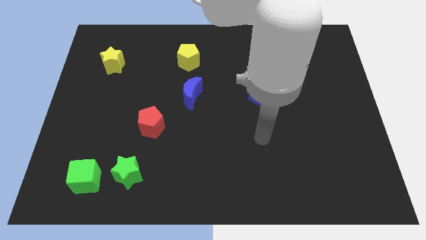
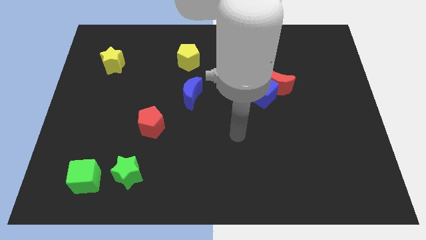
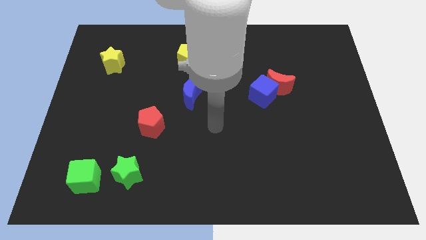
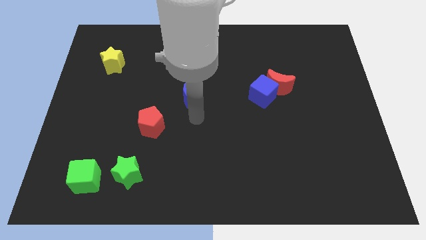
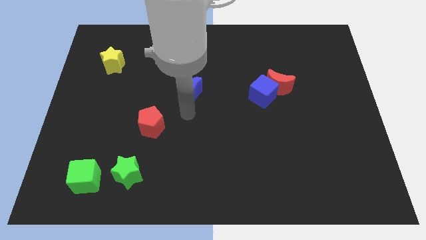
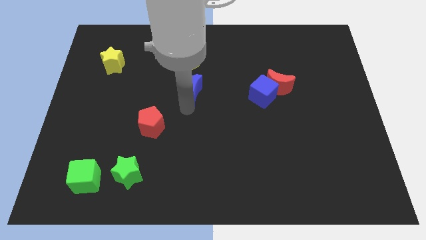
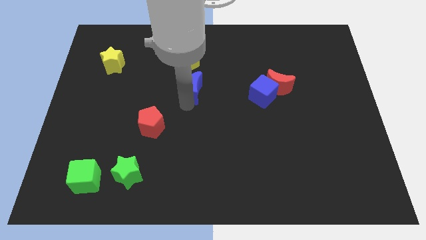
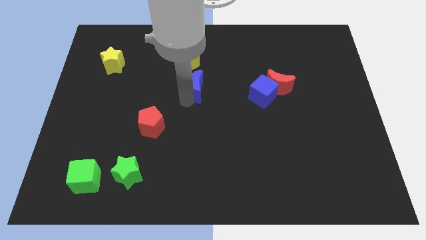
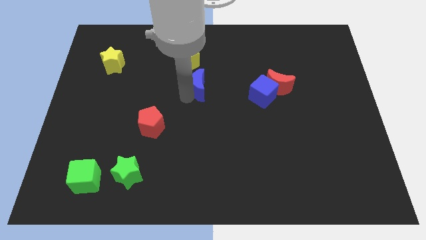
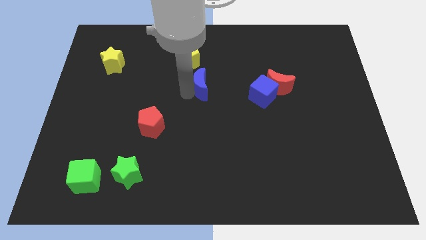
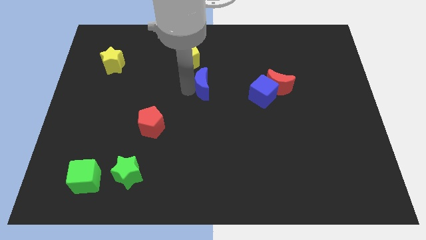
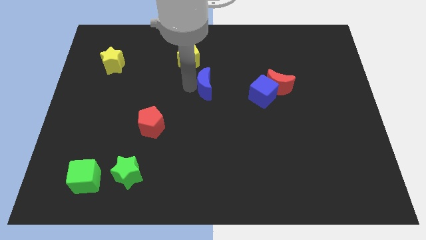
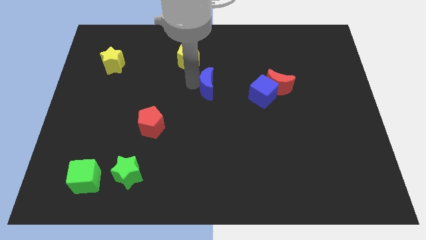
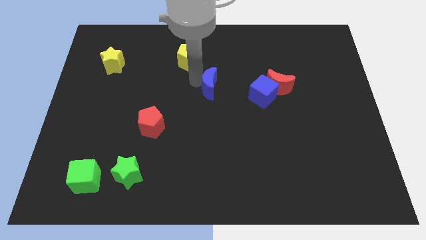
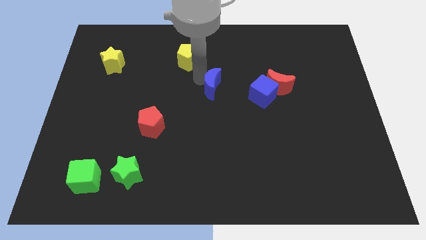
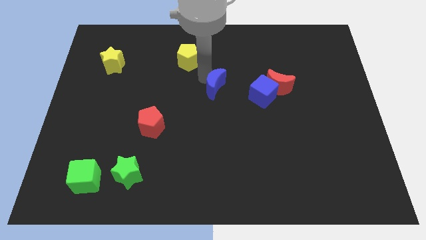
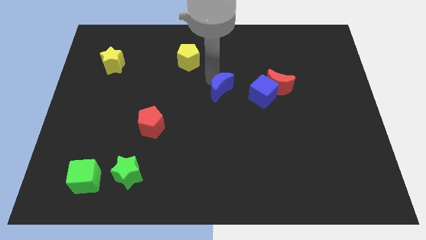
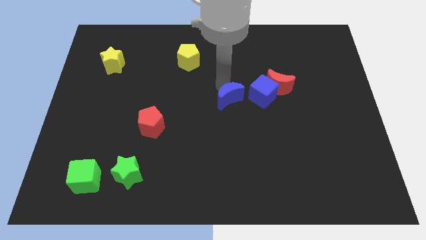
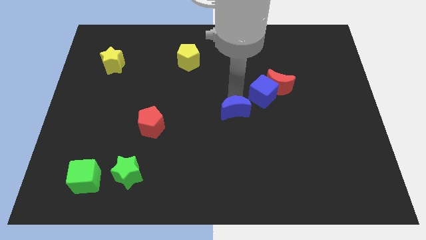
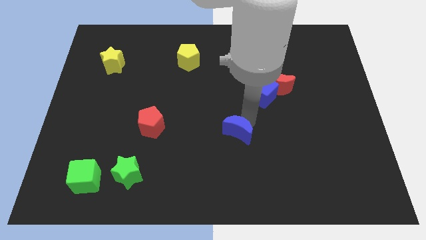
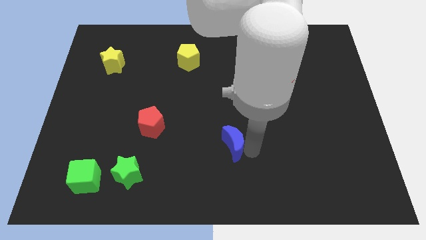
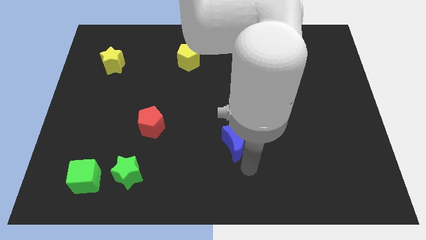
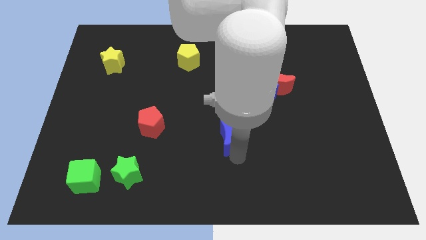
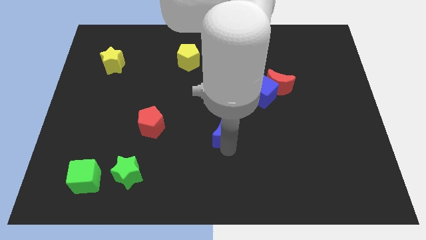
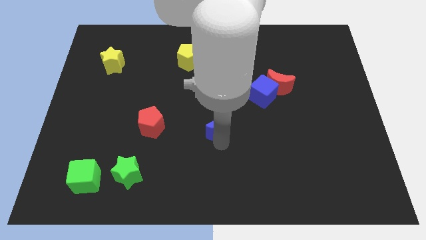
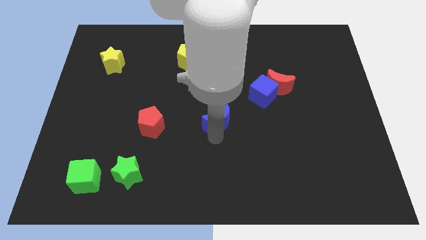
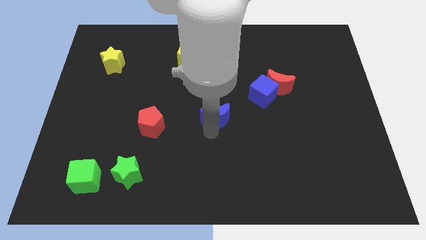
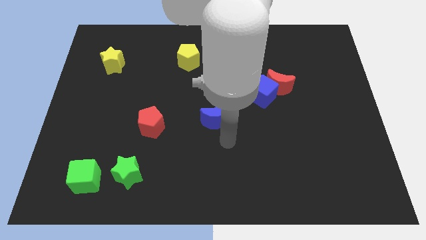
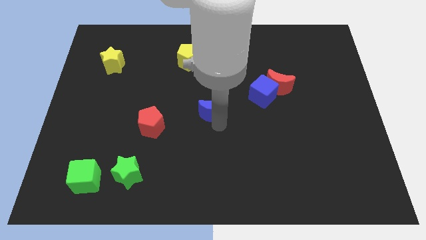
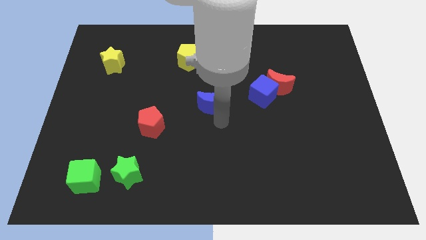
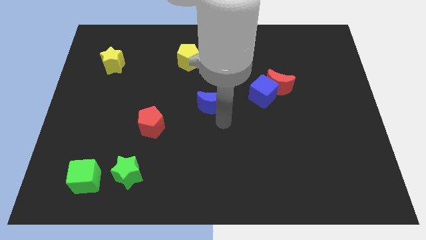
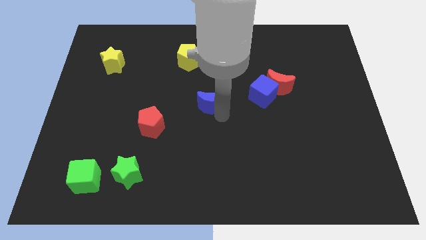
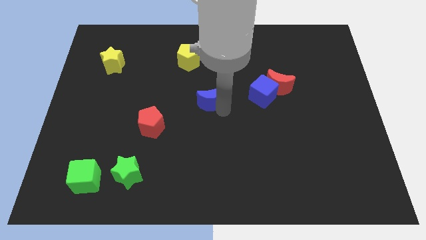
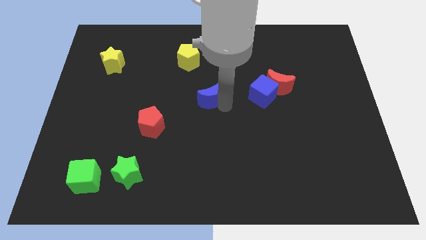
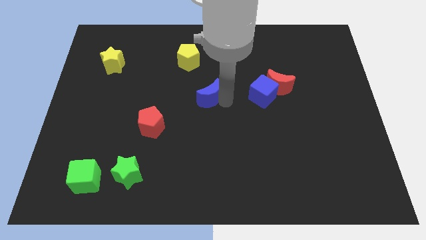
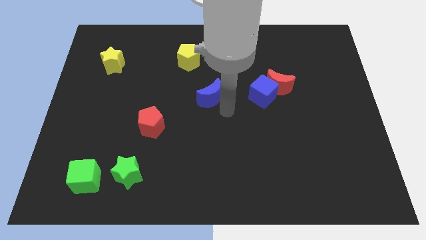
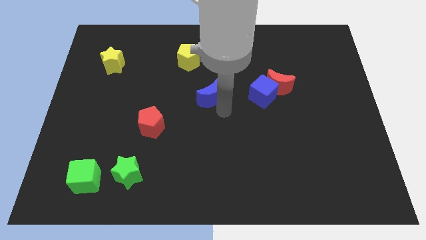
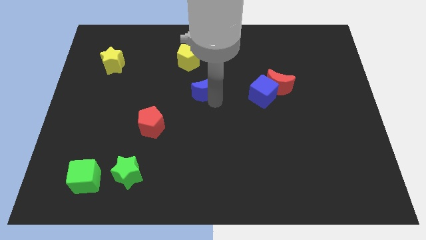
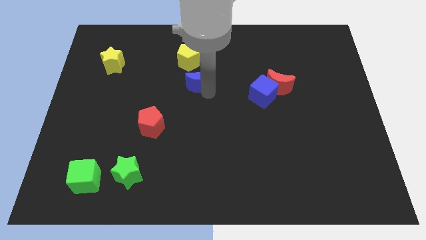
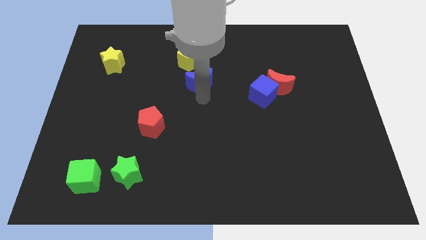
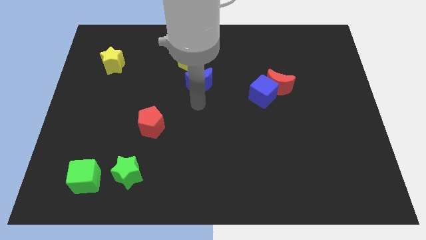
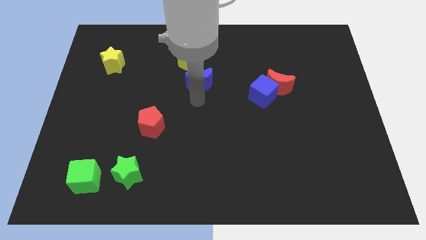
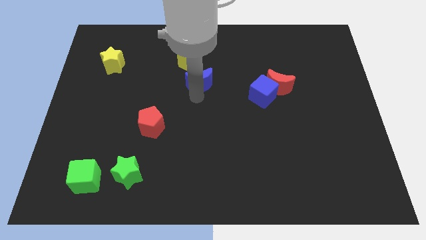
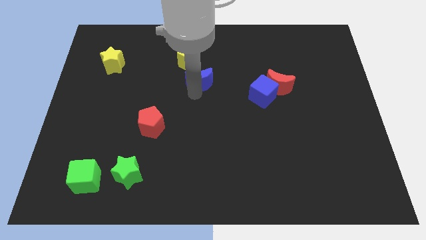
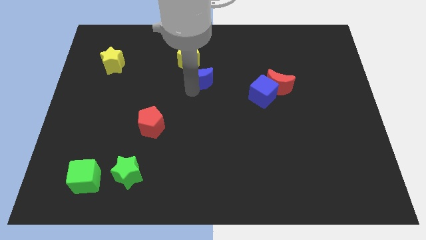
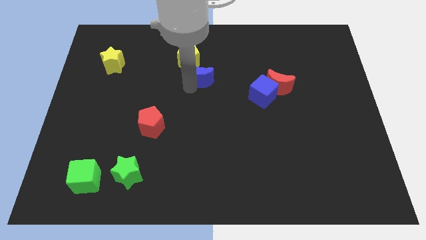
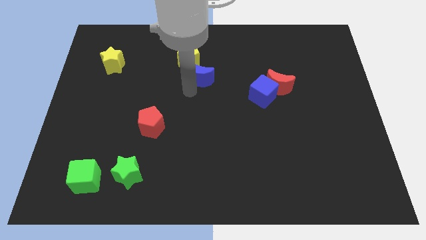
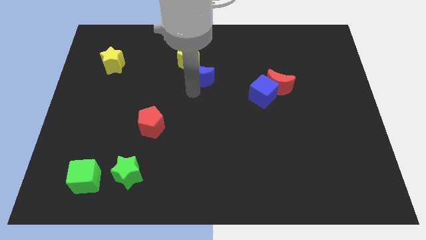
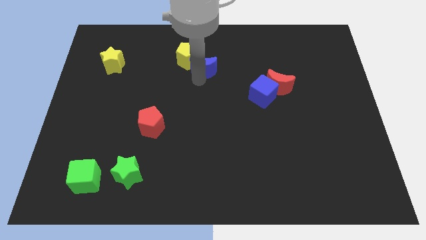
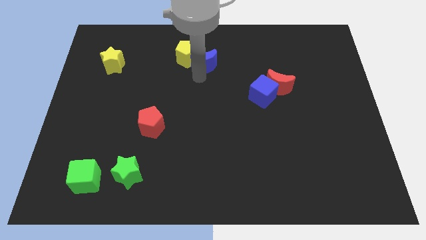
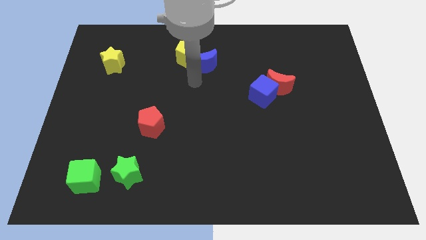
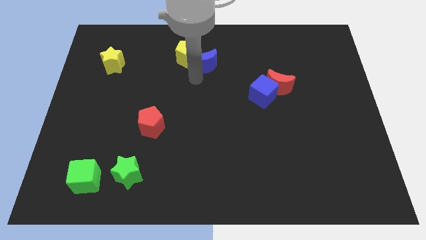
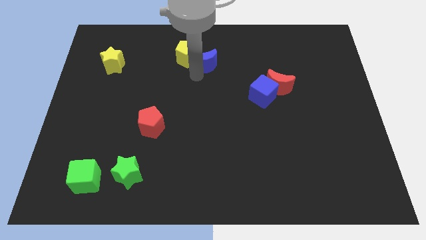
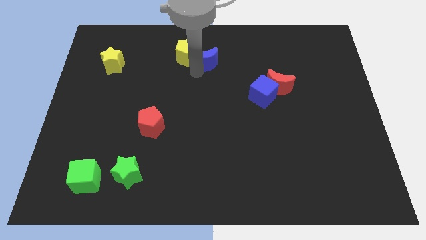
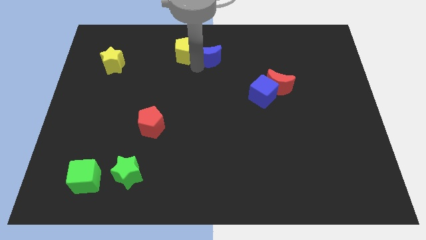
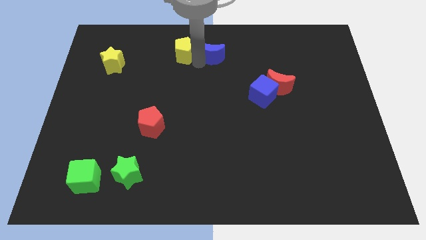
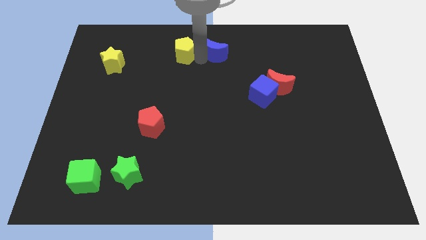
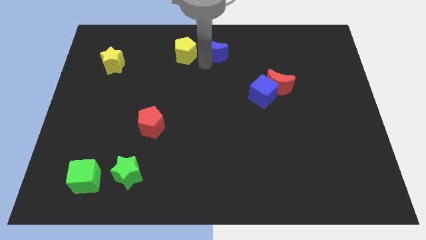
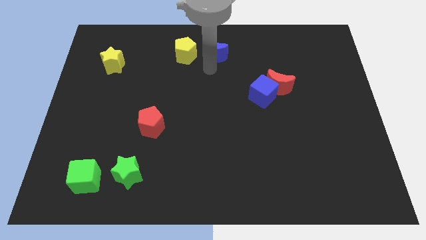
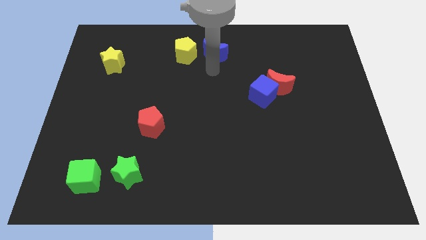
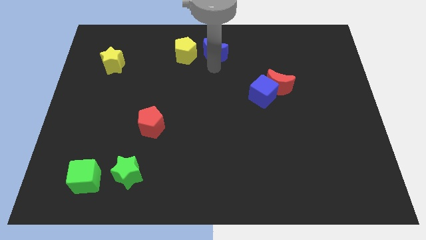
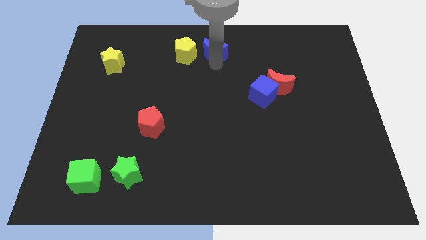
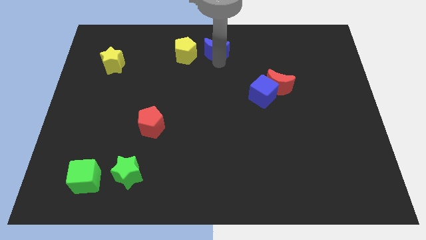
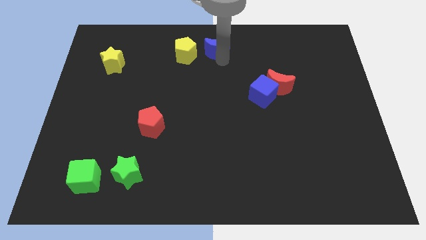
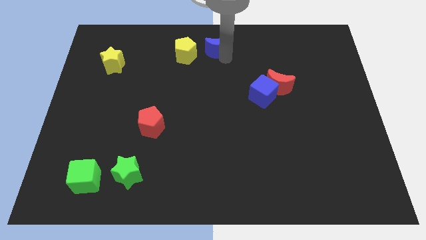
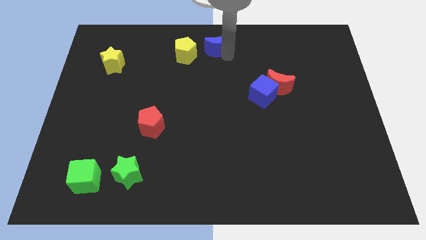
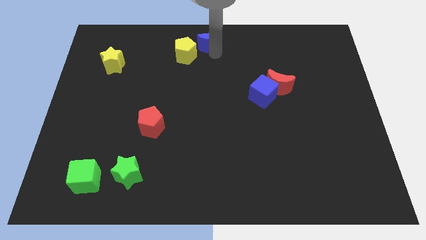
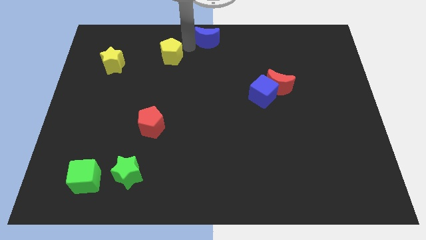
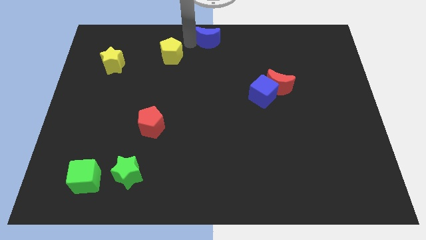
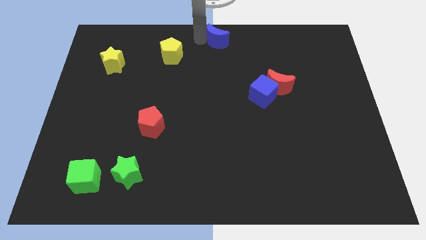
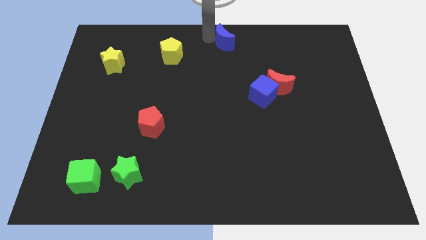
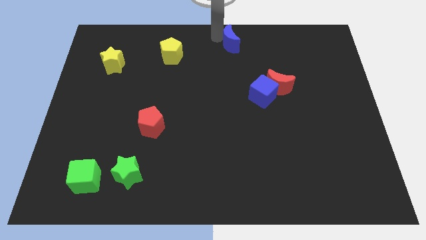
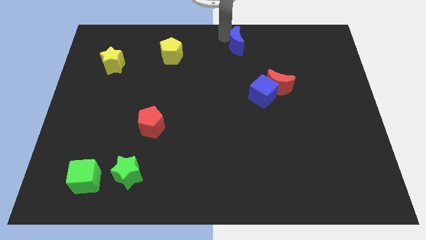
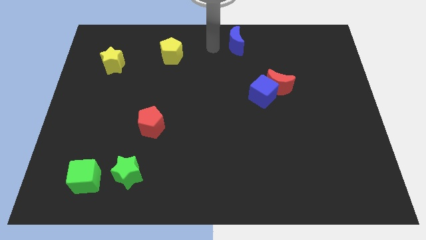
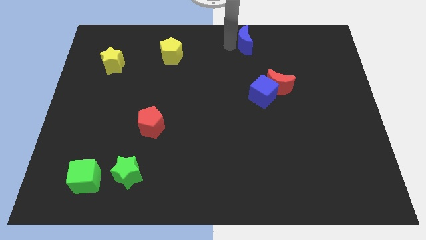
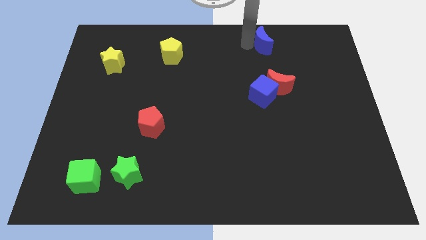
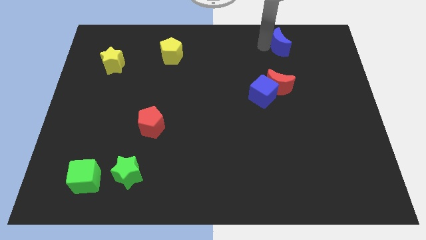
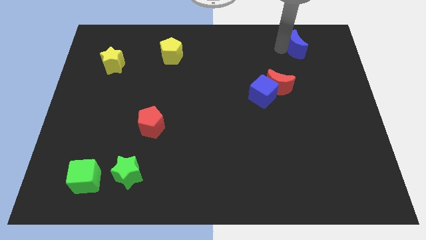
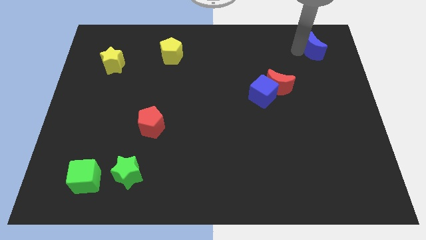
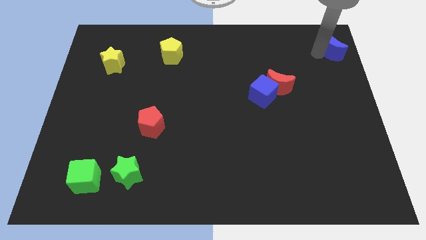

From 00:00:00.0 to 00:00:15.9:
put the blue moon to the top right corner
